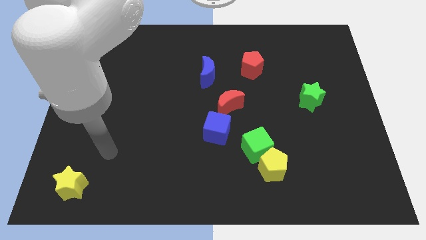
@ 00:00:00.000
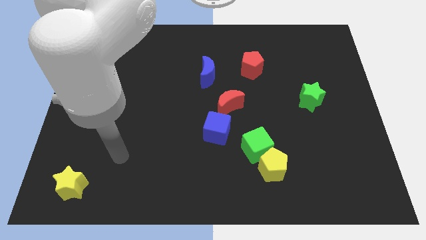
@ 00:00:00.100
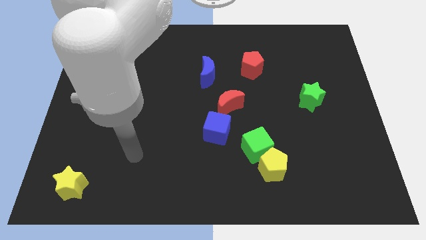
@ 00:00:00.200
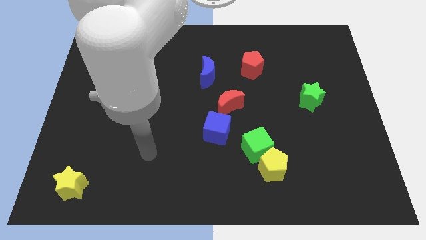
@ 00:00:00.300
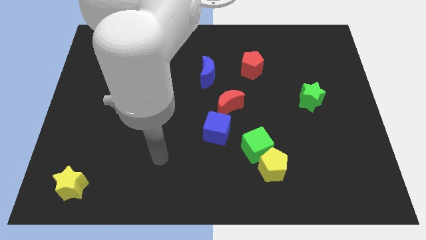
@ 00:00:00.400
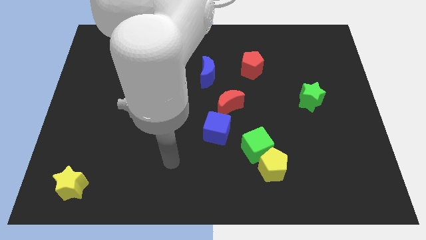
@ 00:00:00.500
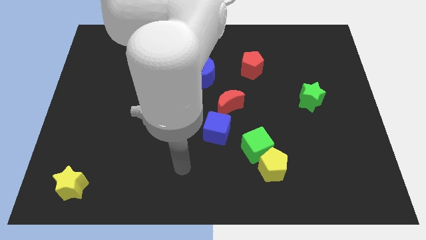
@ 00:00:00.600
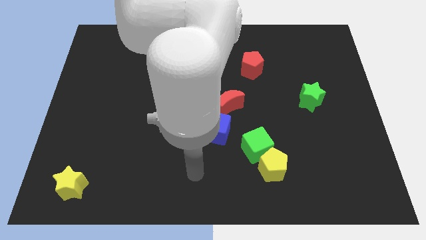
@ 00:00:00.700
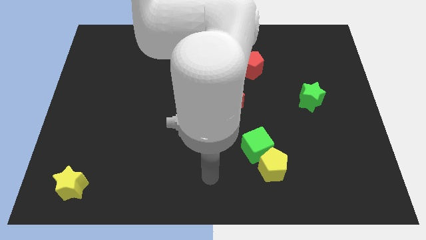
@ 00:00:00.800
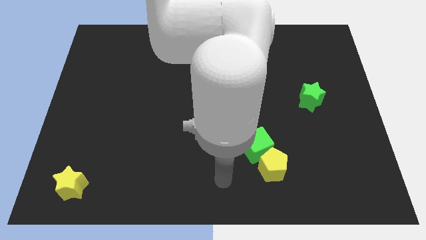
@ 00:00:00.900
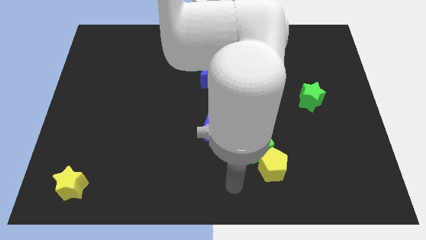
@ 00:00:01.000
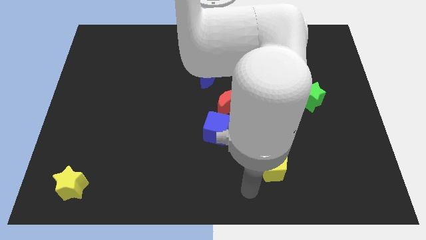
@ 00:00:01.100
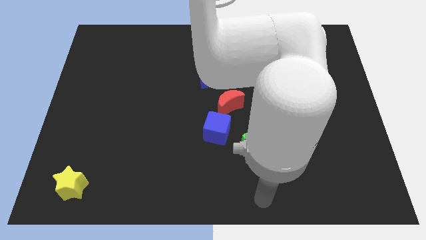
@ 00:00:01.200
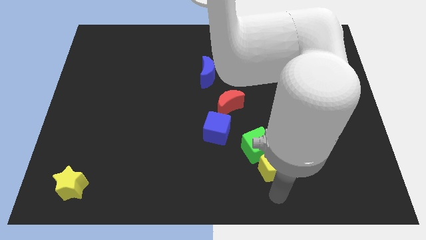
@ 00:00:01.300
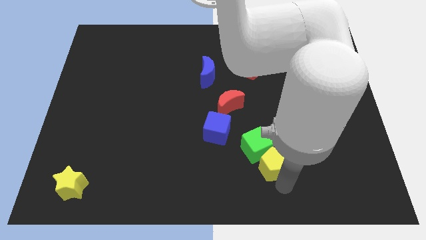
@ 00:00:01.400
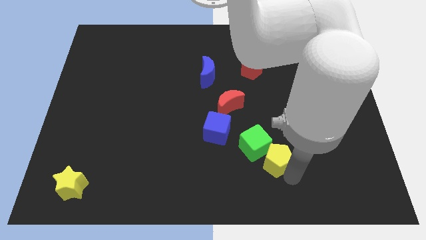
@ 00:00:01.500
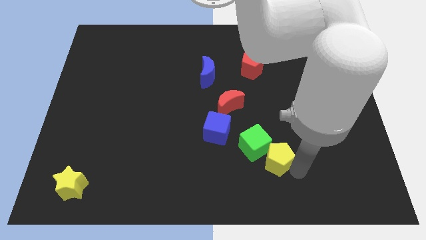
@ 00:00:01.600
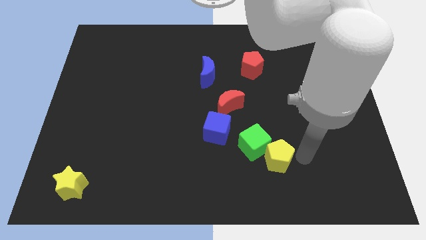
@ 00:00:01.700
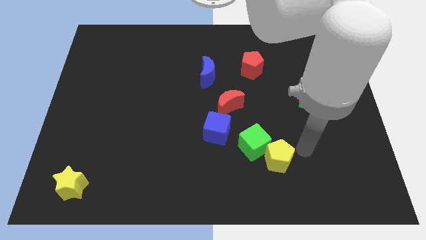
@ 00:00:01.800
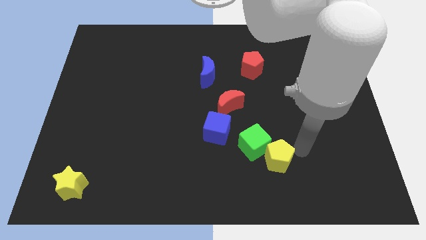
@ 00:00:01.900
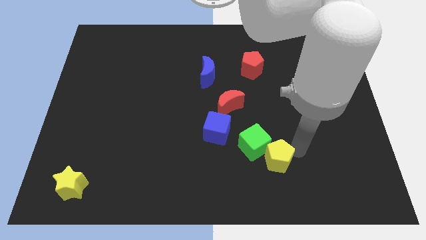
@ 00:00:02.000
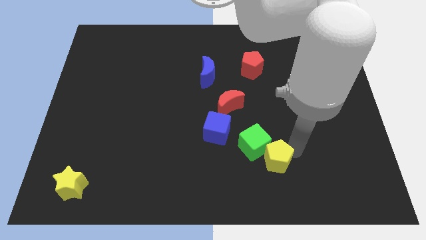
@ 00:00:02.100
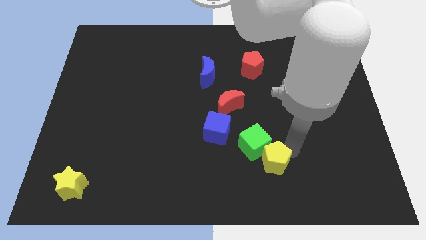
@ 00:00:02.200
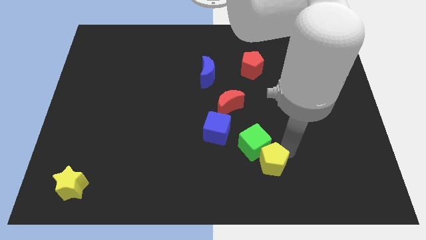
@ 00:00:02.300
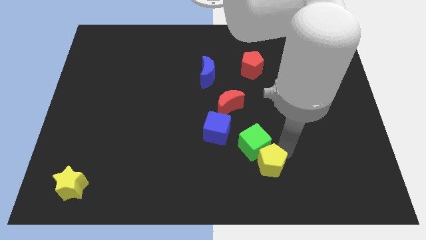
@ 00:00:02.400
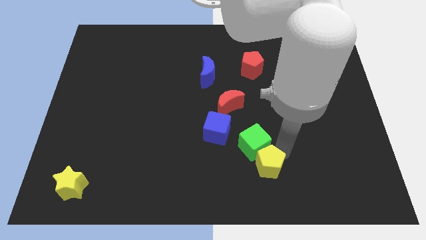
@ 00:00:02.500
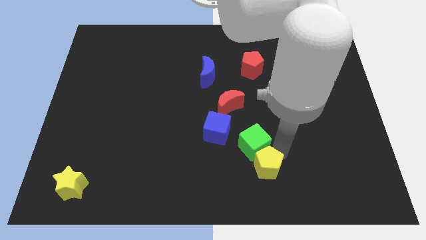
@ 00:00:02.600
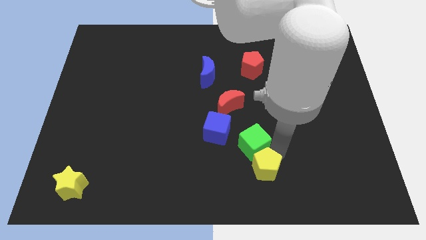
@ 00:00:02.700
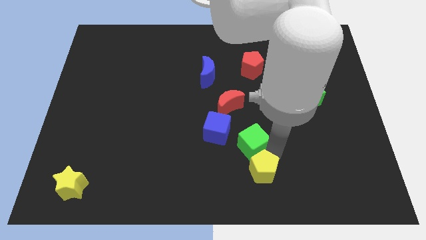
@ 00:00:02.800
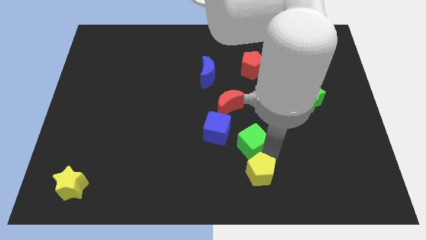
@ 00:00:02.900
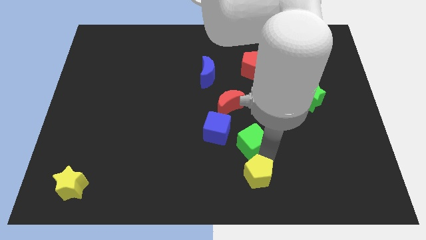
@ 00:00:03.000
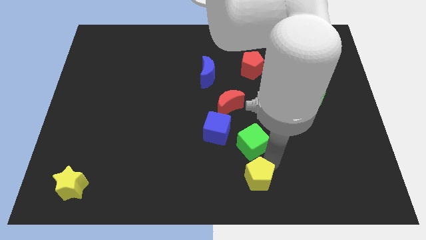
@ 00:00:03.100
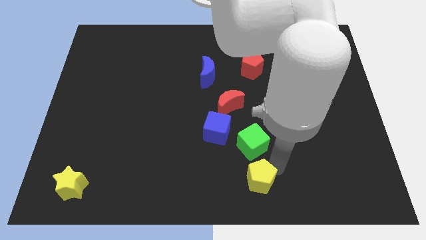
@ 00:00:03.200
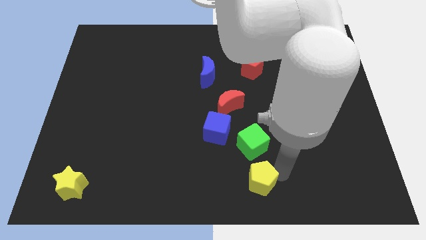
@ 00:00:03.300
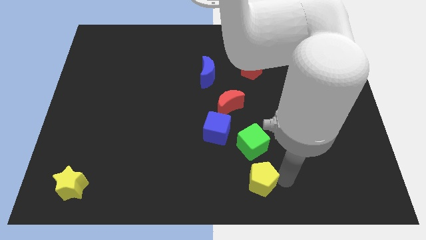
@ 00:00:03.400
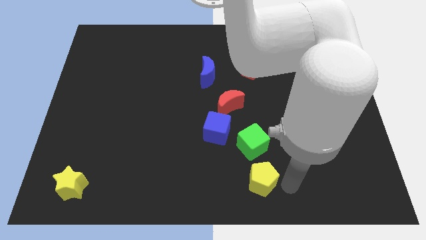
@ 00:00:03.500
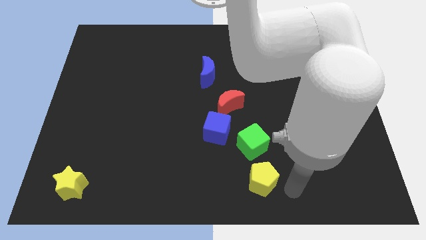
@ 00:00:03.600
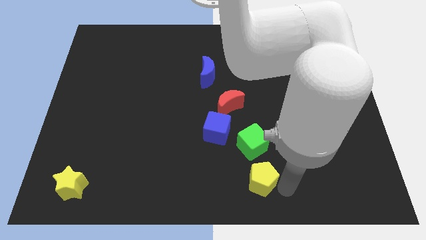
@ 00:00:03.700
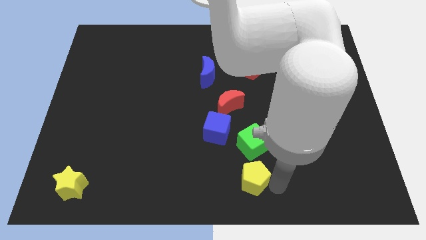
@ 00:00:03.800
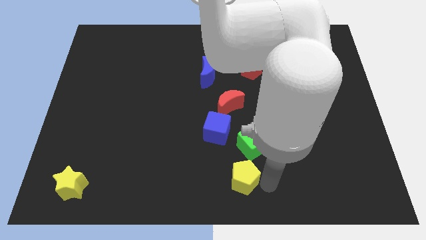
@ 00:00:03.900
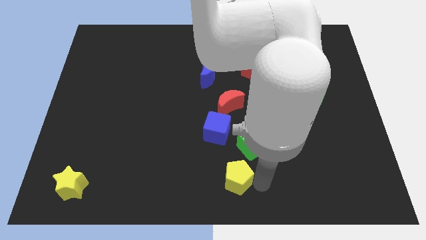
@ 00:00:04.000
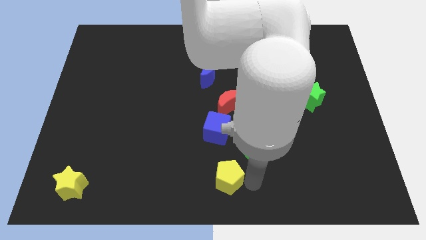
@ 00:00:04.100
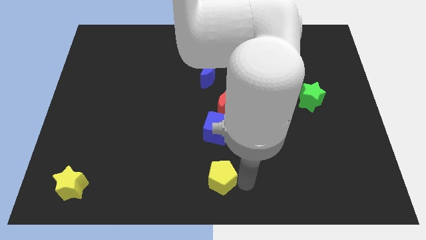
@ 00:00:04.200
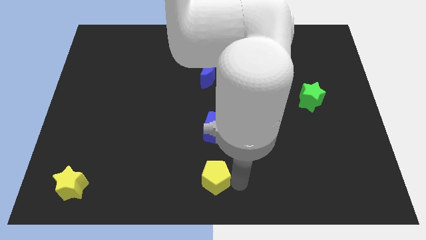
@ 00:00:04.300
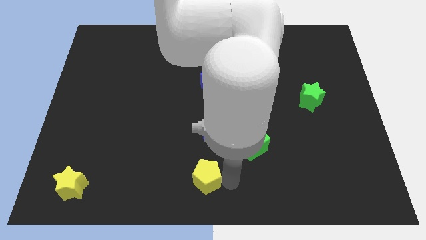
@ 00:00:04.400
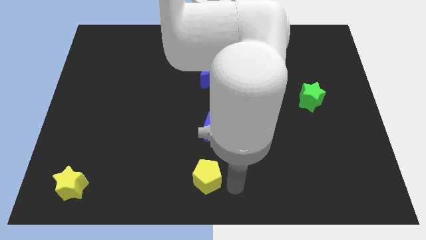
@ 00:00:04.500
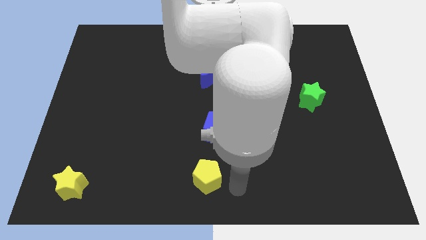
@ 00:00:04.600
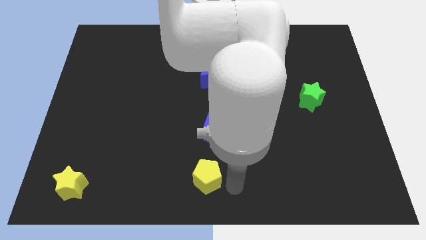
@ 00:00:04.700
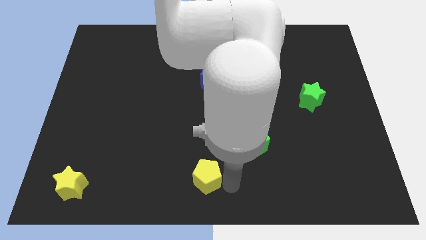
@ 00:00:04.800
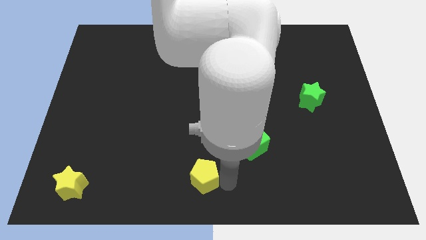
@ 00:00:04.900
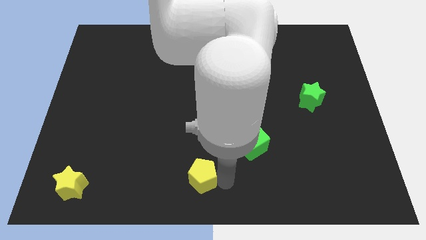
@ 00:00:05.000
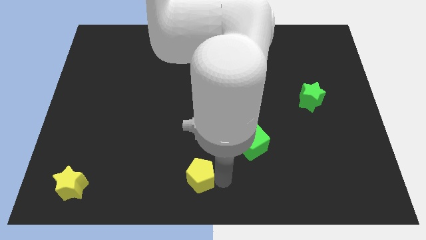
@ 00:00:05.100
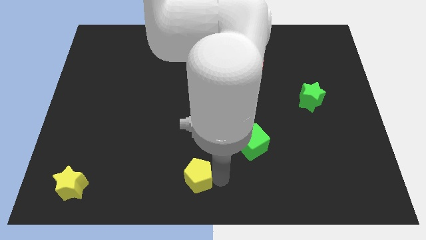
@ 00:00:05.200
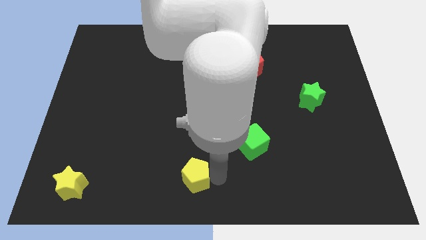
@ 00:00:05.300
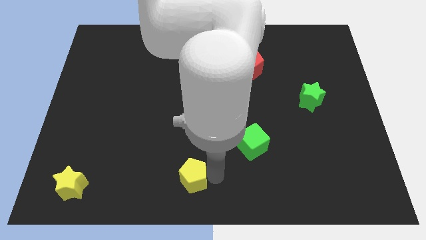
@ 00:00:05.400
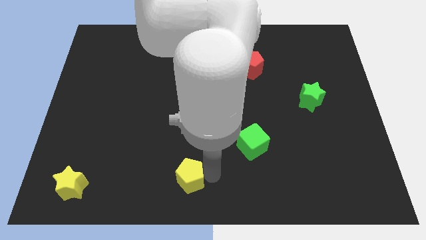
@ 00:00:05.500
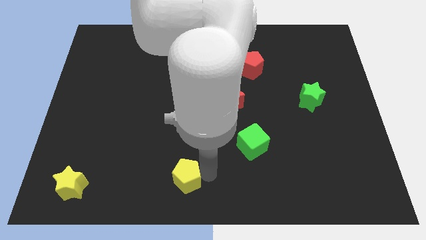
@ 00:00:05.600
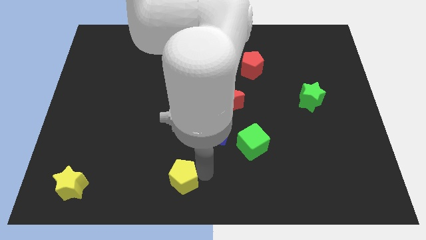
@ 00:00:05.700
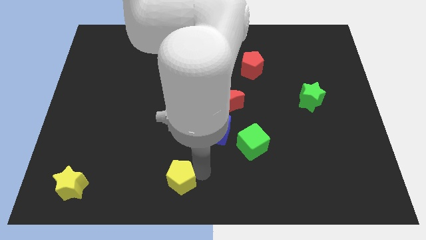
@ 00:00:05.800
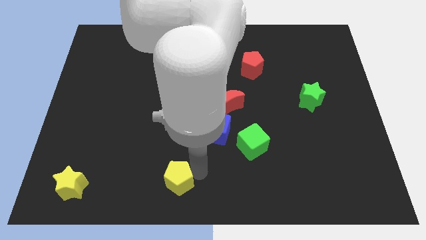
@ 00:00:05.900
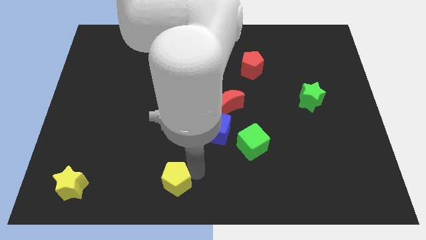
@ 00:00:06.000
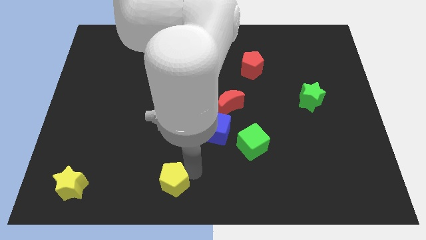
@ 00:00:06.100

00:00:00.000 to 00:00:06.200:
slide the yellow pentagon to the left

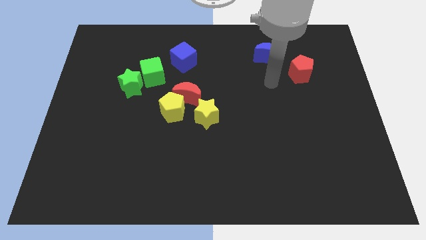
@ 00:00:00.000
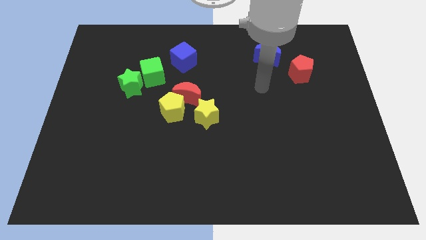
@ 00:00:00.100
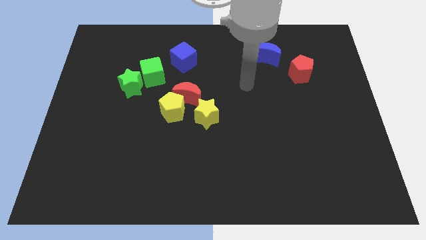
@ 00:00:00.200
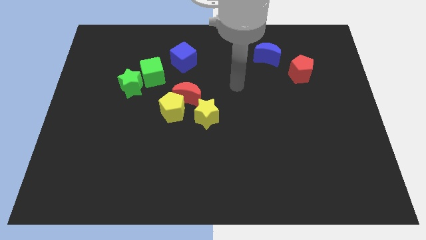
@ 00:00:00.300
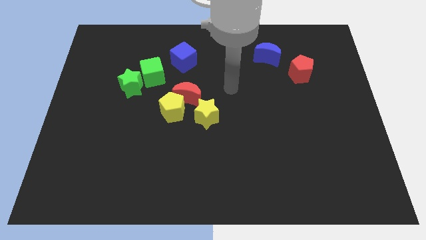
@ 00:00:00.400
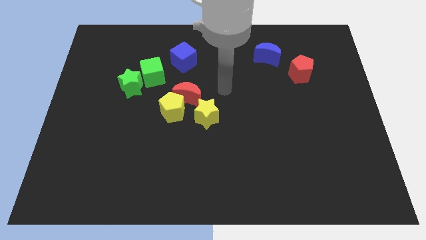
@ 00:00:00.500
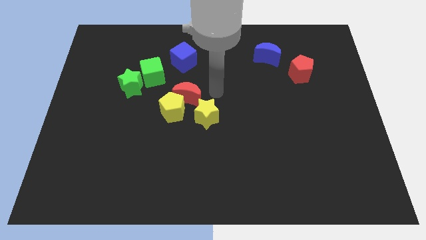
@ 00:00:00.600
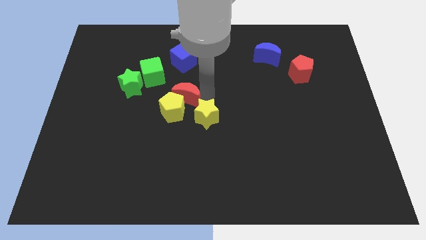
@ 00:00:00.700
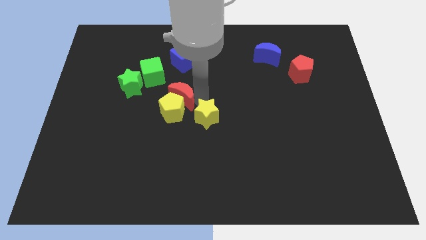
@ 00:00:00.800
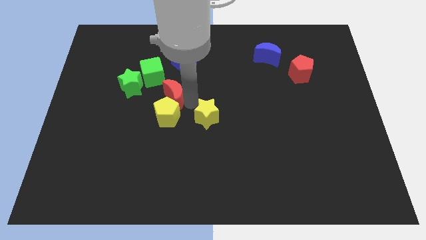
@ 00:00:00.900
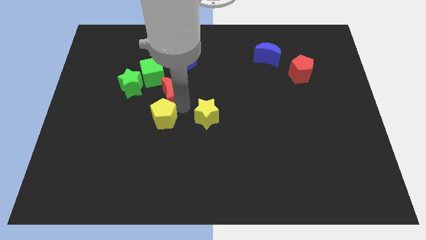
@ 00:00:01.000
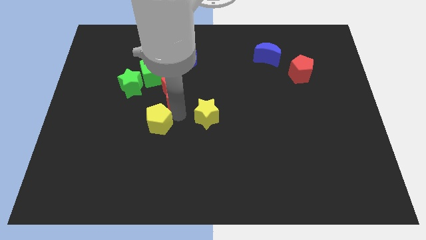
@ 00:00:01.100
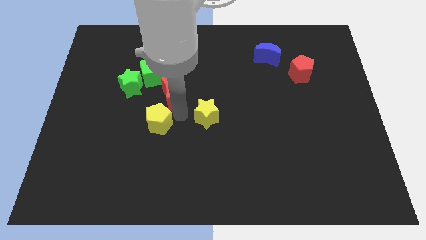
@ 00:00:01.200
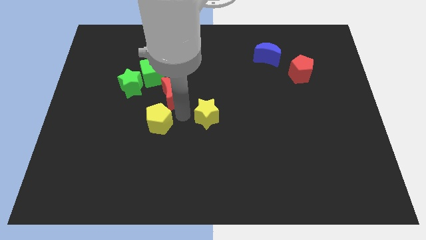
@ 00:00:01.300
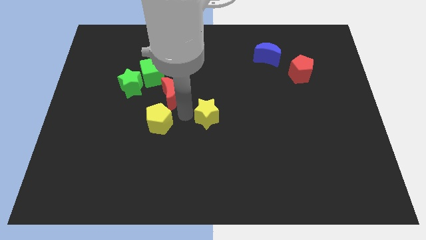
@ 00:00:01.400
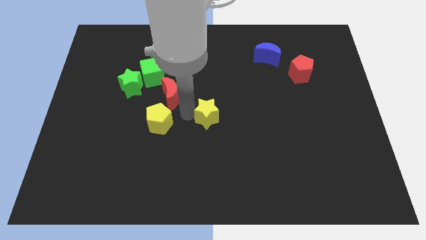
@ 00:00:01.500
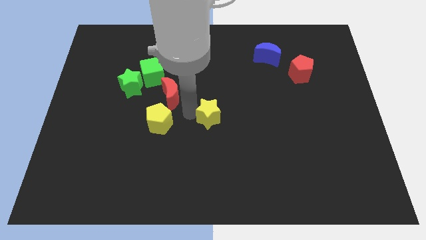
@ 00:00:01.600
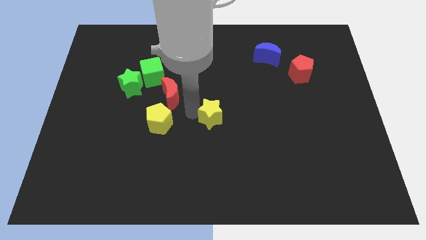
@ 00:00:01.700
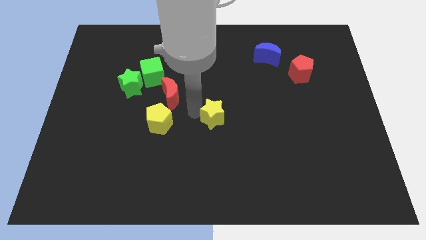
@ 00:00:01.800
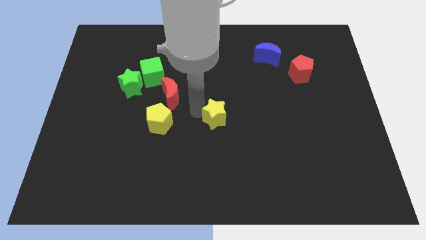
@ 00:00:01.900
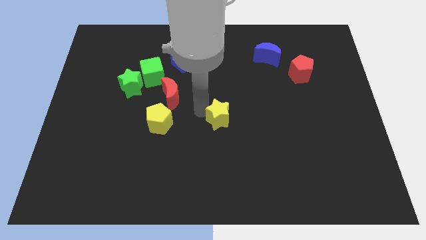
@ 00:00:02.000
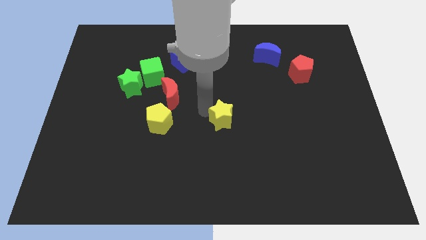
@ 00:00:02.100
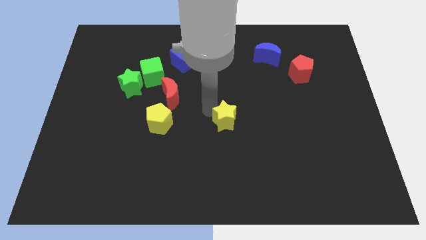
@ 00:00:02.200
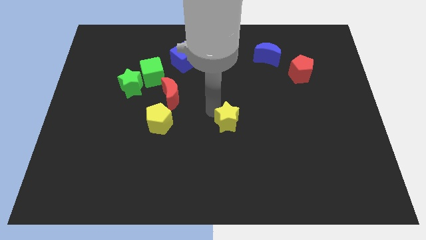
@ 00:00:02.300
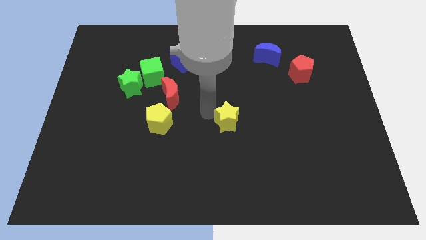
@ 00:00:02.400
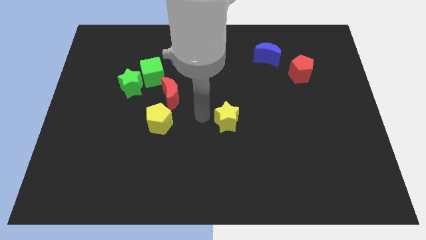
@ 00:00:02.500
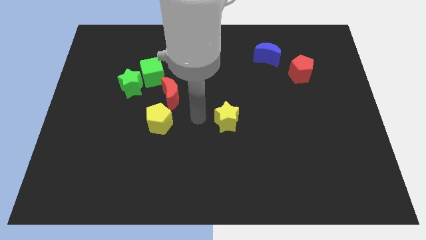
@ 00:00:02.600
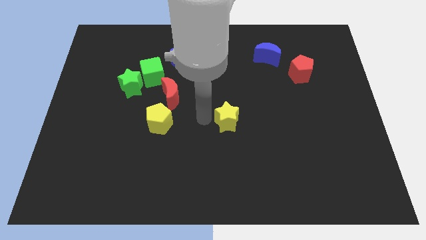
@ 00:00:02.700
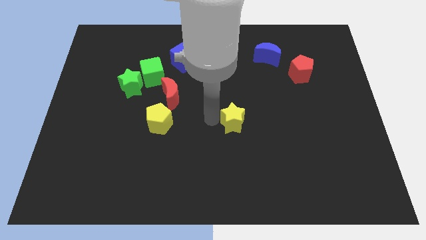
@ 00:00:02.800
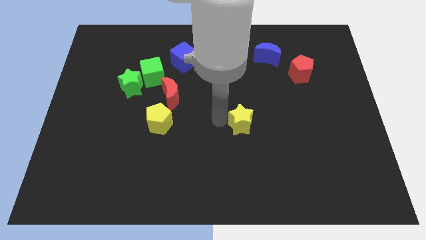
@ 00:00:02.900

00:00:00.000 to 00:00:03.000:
push the yellow star to the right a little bit
